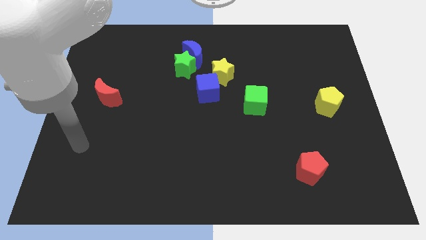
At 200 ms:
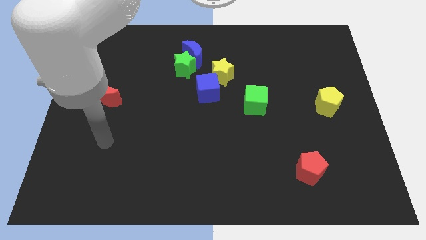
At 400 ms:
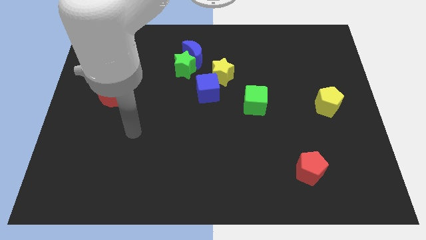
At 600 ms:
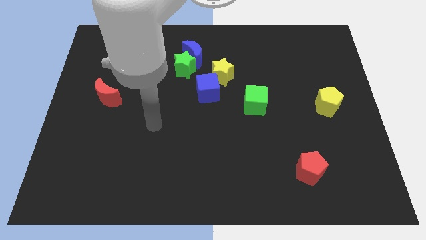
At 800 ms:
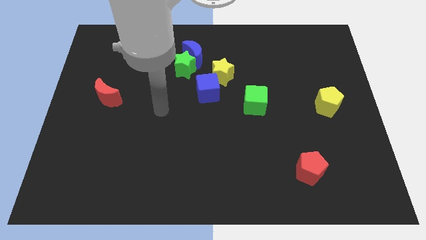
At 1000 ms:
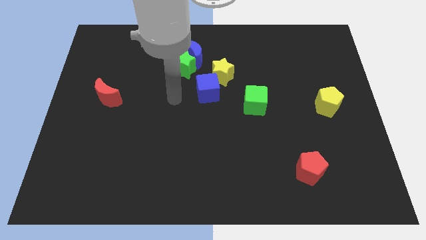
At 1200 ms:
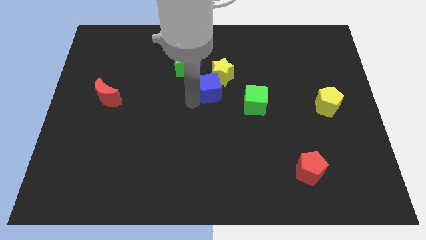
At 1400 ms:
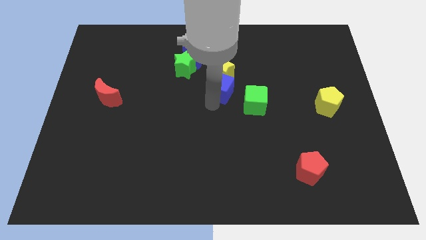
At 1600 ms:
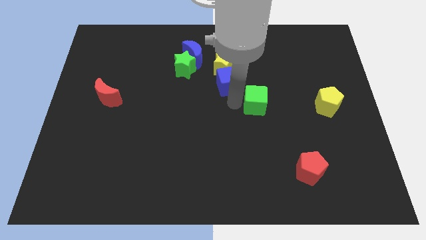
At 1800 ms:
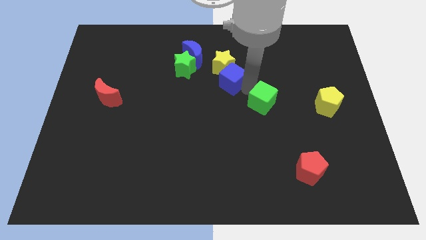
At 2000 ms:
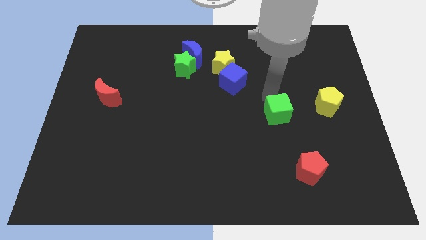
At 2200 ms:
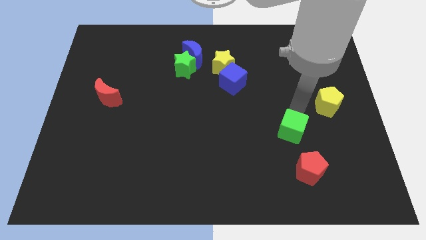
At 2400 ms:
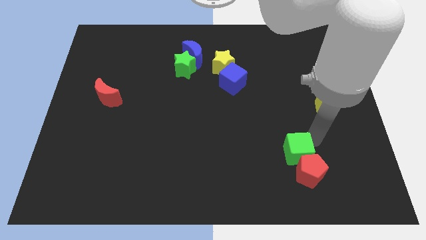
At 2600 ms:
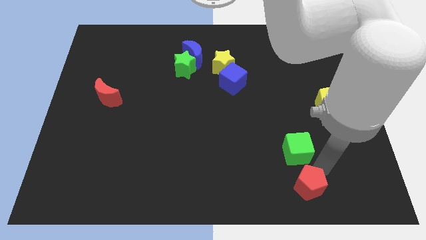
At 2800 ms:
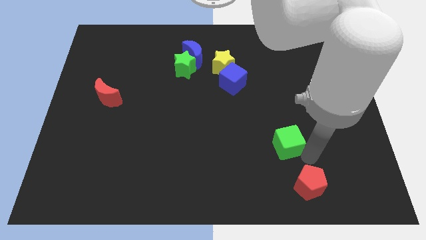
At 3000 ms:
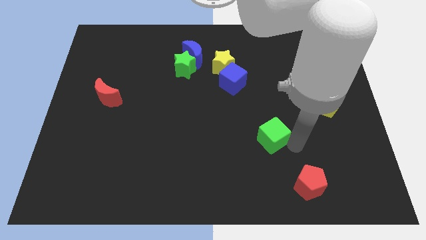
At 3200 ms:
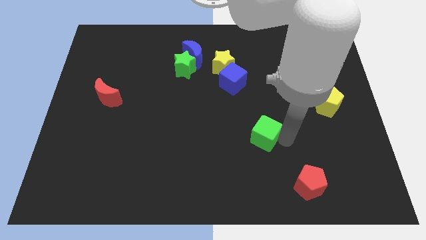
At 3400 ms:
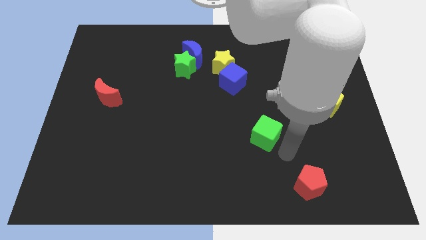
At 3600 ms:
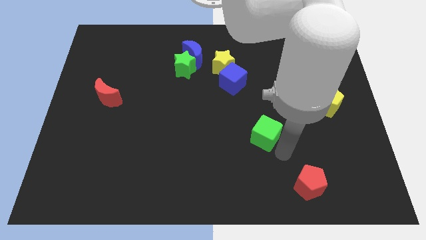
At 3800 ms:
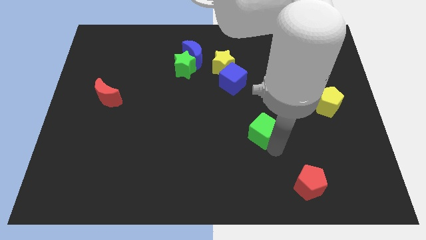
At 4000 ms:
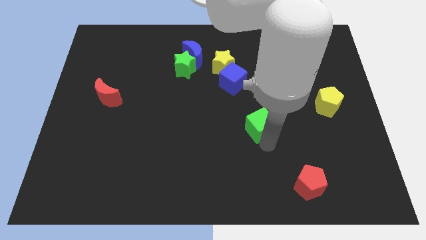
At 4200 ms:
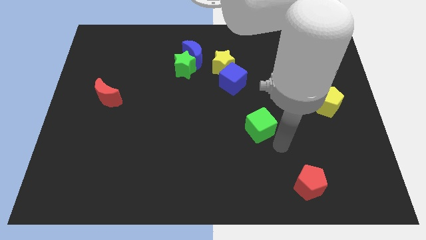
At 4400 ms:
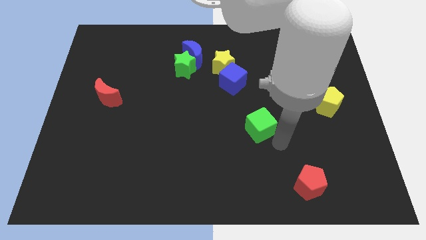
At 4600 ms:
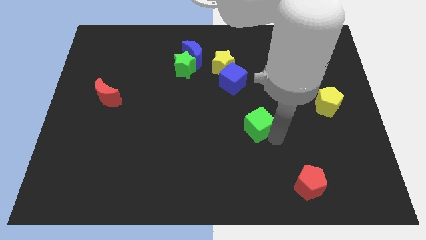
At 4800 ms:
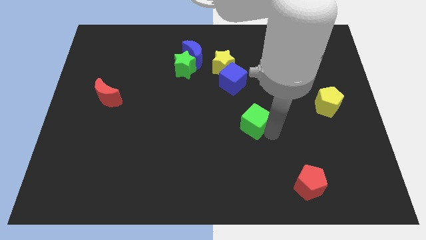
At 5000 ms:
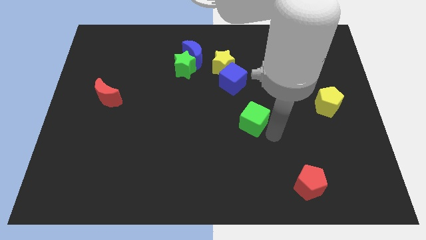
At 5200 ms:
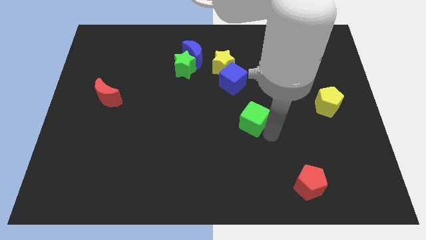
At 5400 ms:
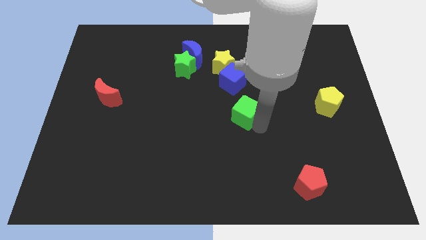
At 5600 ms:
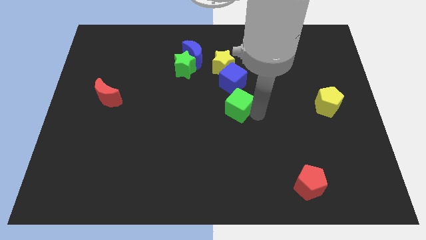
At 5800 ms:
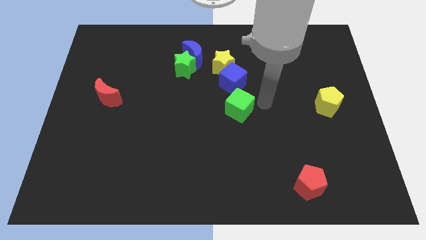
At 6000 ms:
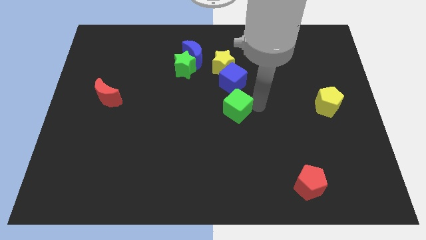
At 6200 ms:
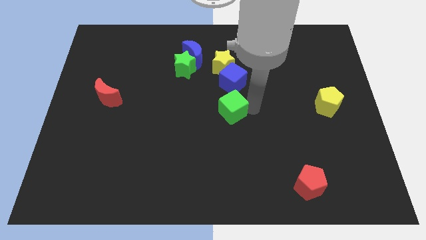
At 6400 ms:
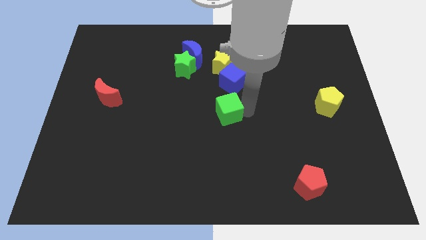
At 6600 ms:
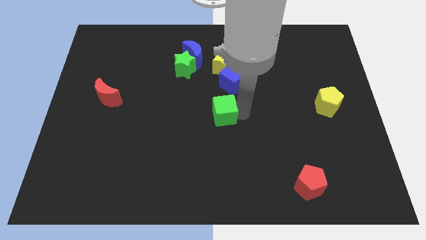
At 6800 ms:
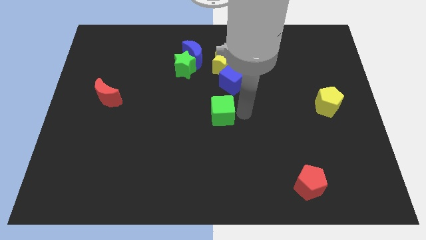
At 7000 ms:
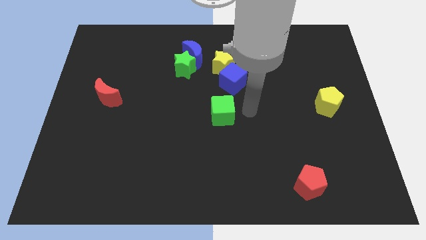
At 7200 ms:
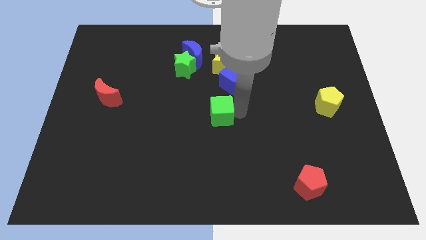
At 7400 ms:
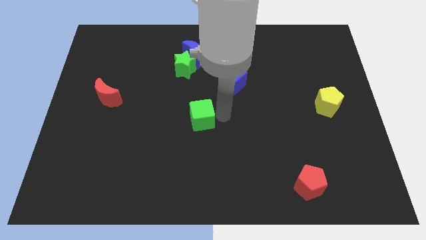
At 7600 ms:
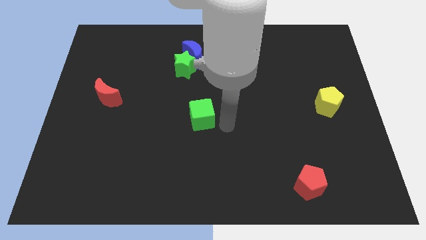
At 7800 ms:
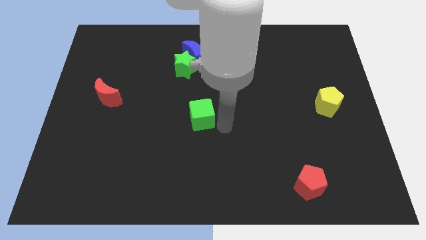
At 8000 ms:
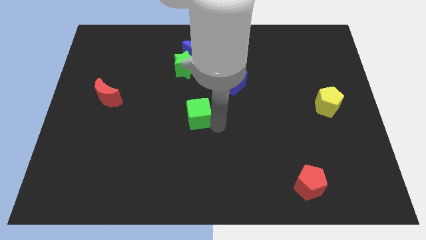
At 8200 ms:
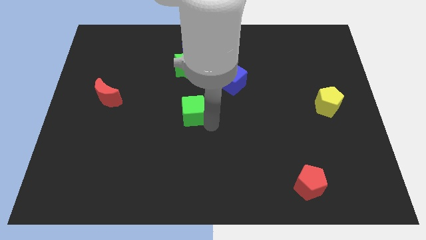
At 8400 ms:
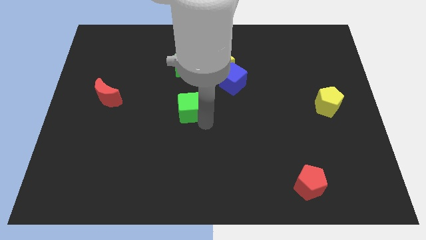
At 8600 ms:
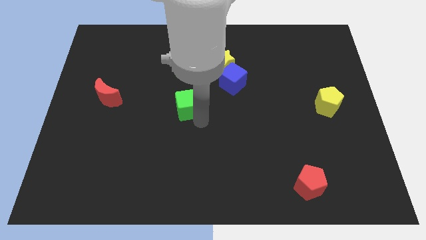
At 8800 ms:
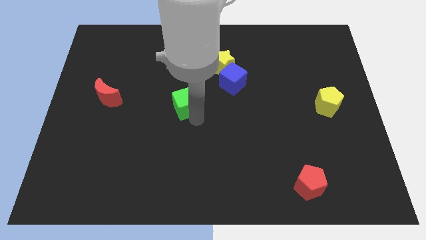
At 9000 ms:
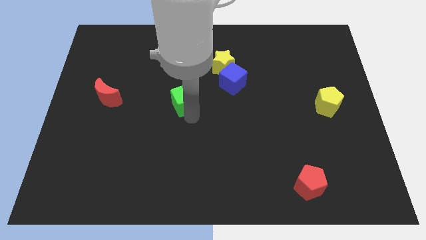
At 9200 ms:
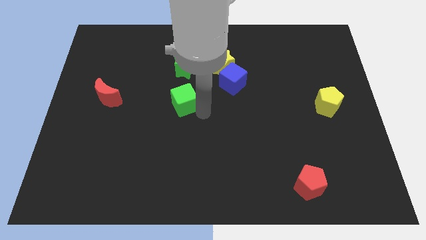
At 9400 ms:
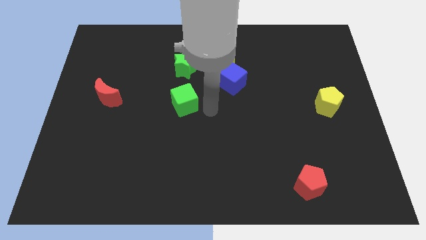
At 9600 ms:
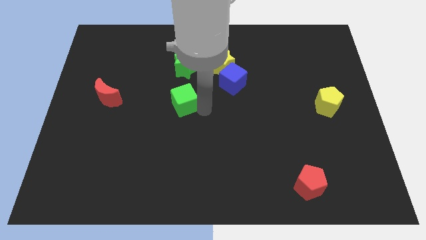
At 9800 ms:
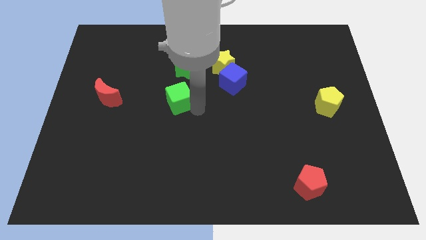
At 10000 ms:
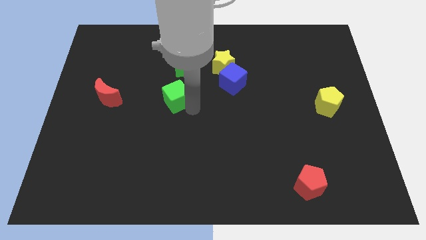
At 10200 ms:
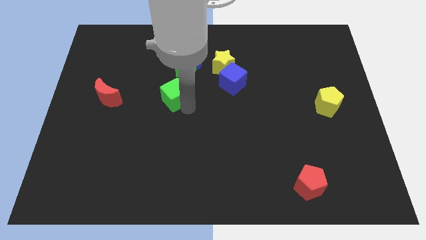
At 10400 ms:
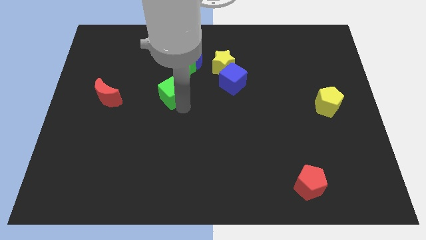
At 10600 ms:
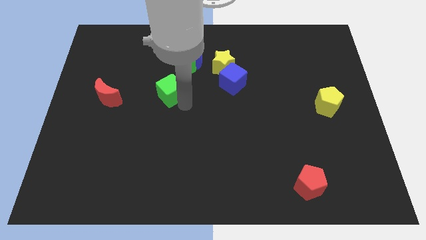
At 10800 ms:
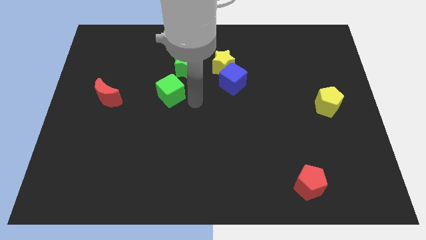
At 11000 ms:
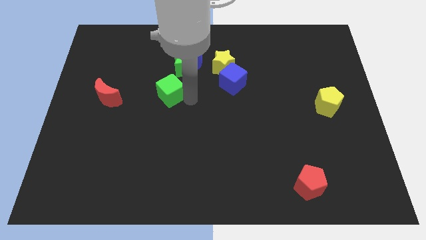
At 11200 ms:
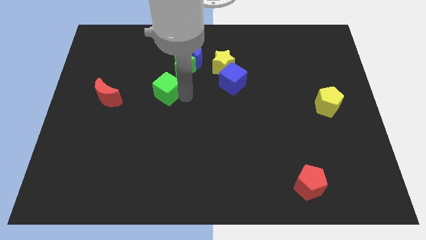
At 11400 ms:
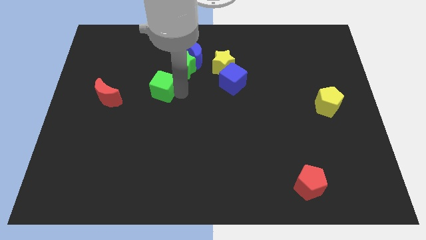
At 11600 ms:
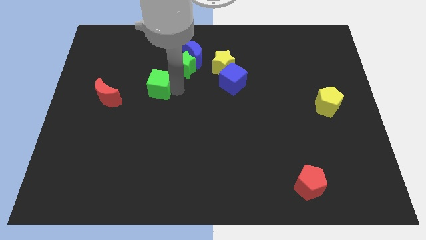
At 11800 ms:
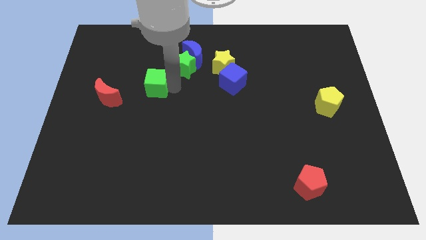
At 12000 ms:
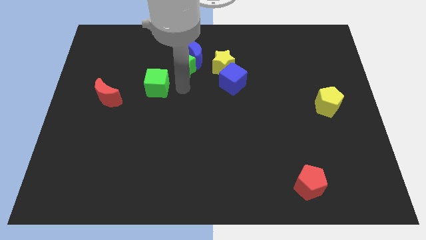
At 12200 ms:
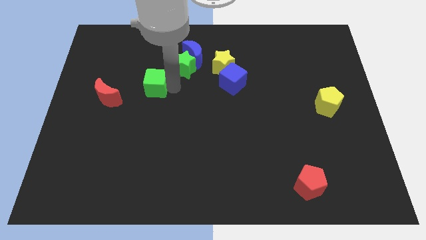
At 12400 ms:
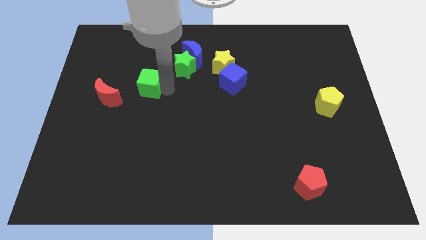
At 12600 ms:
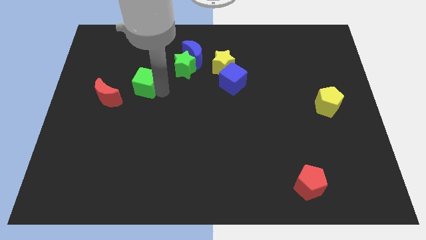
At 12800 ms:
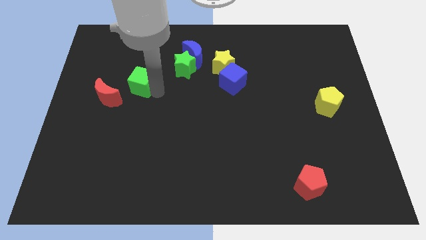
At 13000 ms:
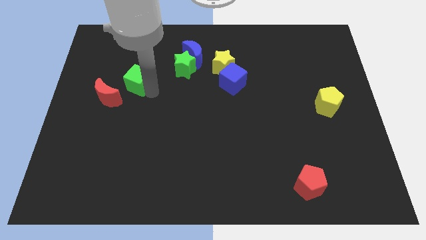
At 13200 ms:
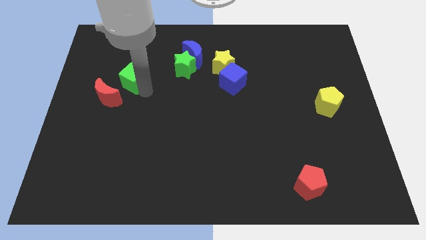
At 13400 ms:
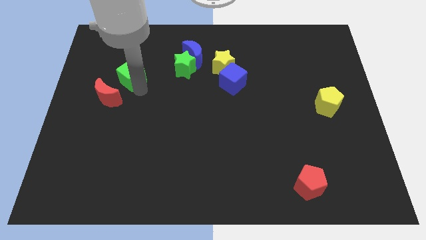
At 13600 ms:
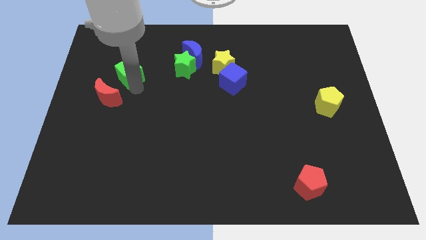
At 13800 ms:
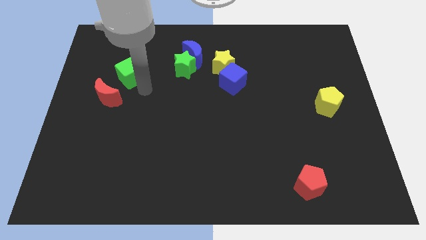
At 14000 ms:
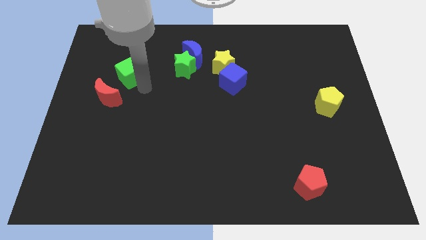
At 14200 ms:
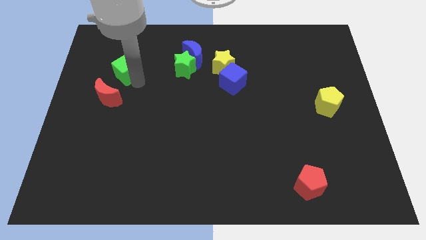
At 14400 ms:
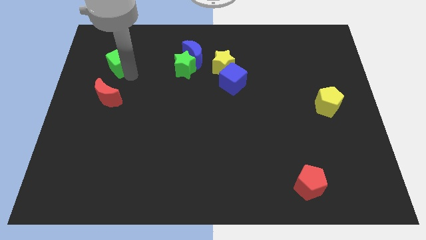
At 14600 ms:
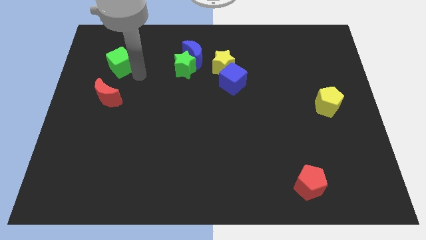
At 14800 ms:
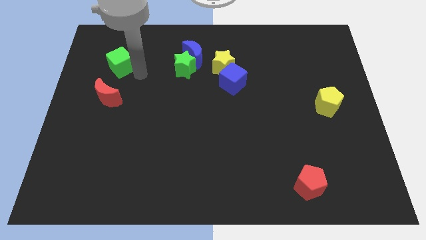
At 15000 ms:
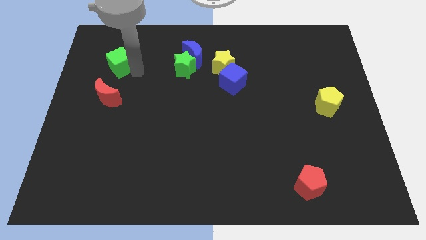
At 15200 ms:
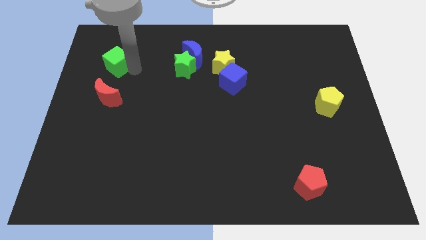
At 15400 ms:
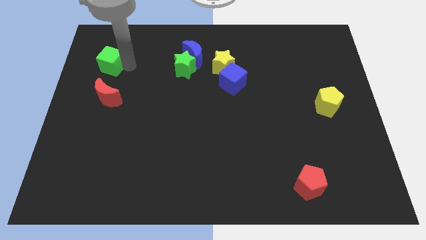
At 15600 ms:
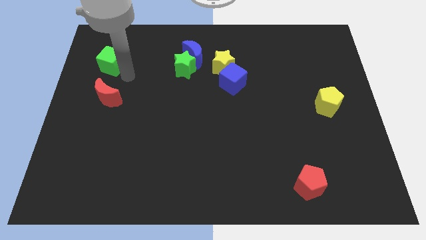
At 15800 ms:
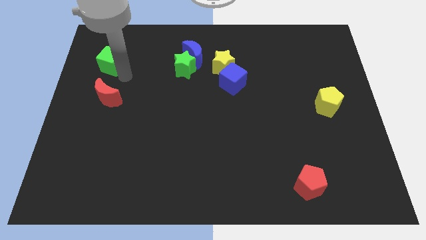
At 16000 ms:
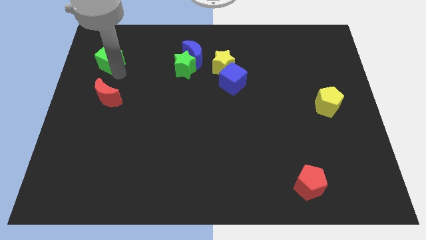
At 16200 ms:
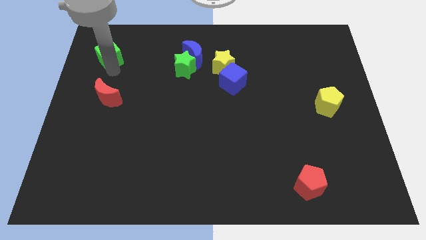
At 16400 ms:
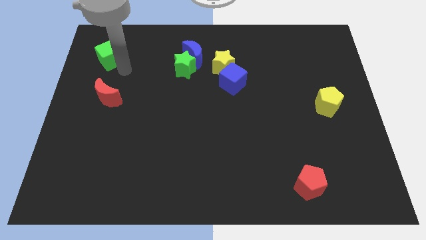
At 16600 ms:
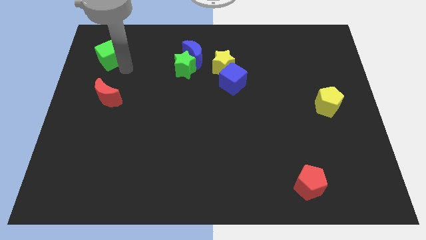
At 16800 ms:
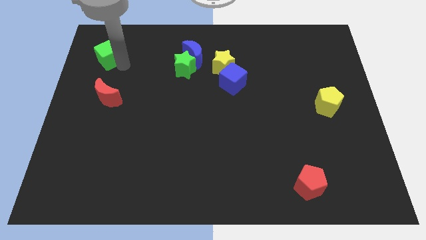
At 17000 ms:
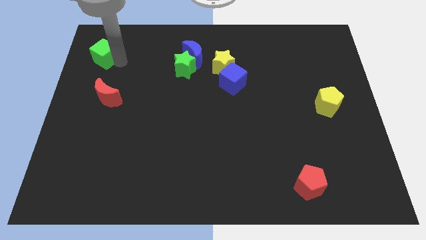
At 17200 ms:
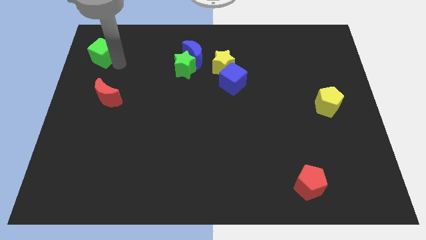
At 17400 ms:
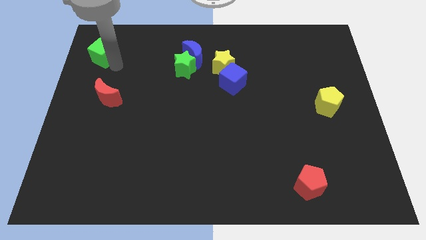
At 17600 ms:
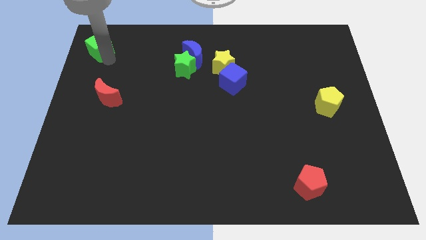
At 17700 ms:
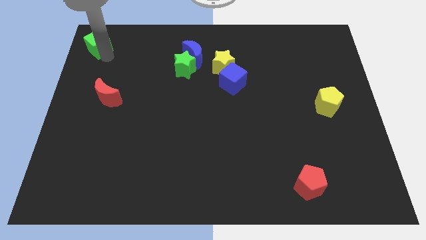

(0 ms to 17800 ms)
move the green cube to the top left
